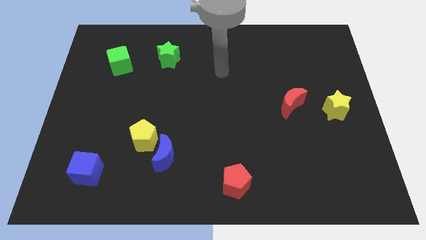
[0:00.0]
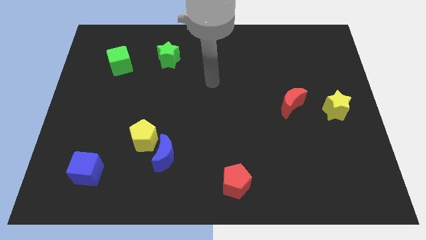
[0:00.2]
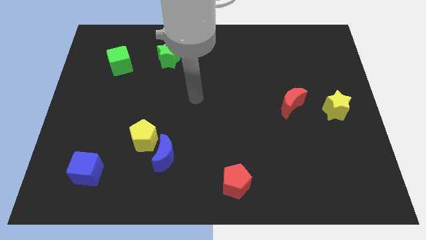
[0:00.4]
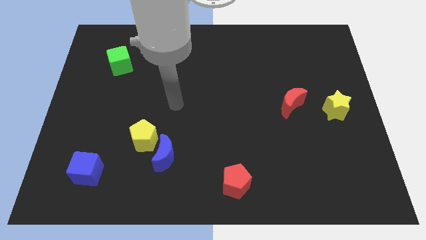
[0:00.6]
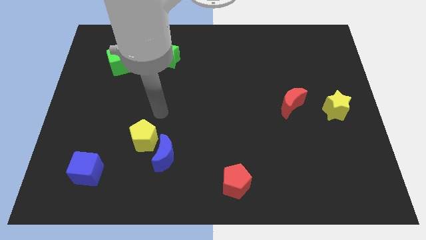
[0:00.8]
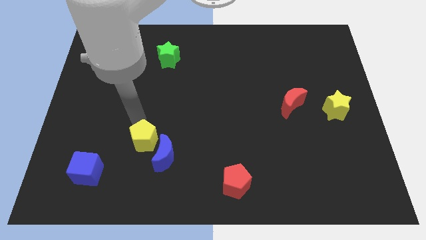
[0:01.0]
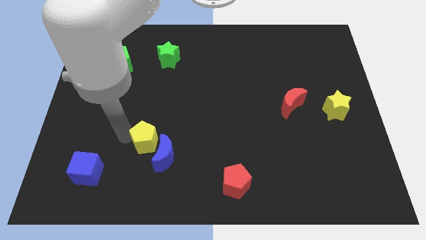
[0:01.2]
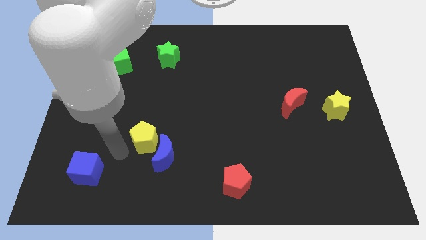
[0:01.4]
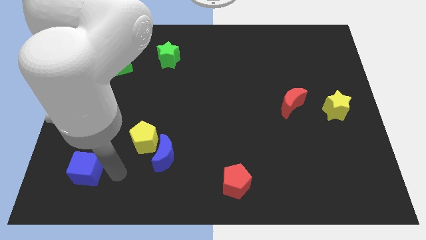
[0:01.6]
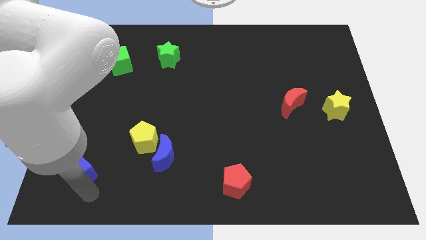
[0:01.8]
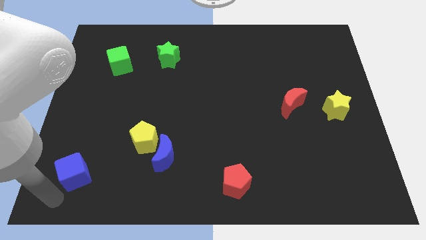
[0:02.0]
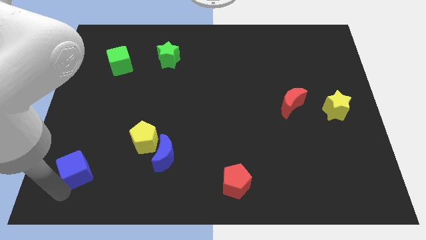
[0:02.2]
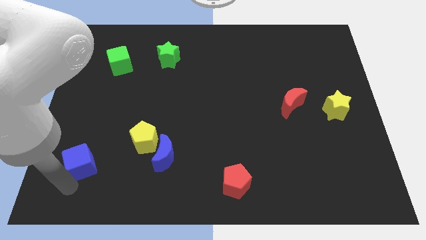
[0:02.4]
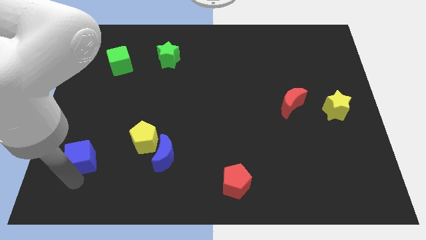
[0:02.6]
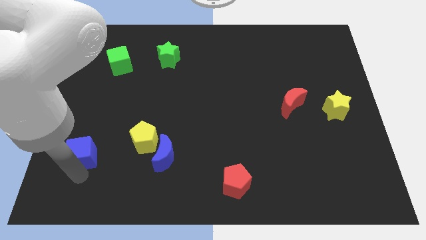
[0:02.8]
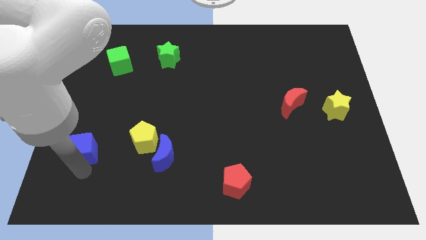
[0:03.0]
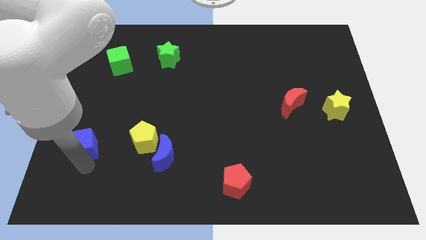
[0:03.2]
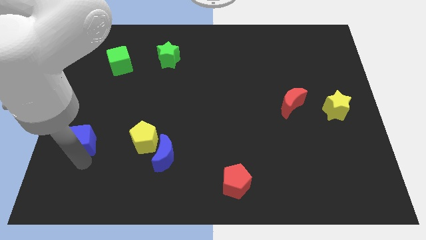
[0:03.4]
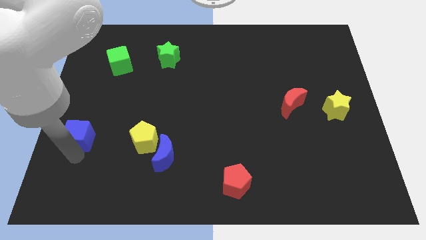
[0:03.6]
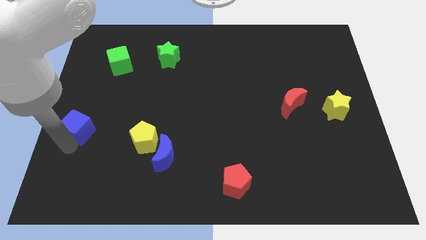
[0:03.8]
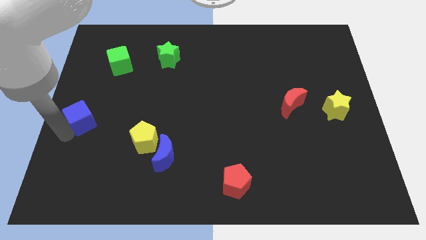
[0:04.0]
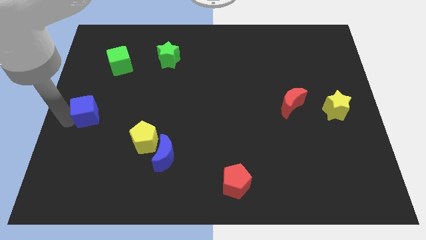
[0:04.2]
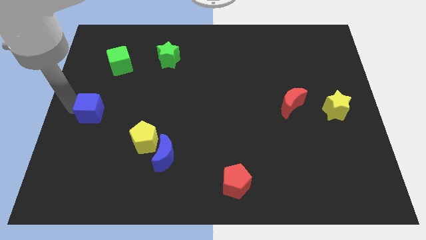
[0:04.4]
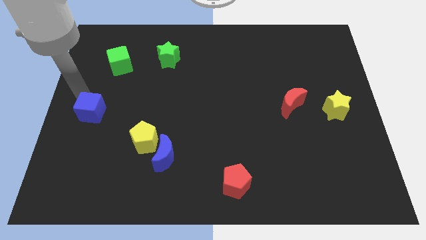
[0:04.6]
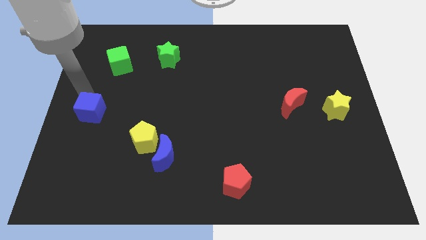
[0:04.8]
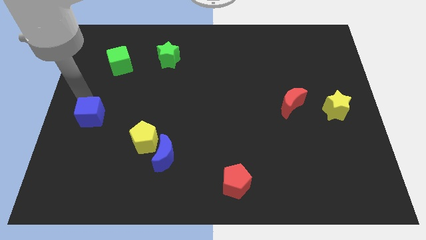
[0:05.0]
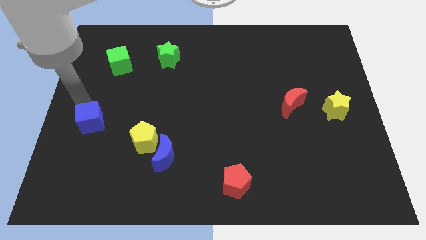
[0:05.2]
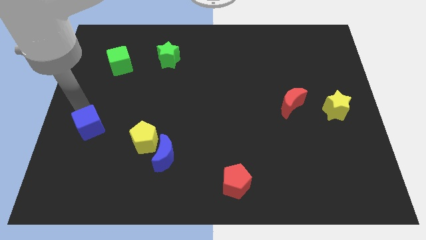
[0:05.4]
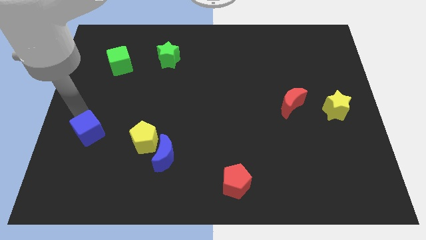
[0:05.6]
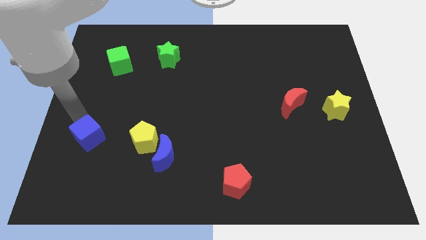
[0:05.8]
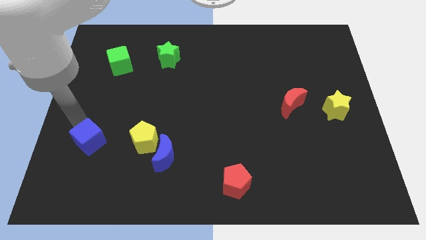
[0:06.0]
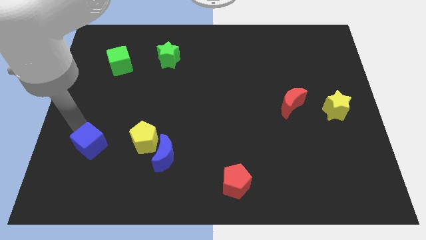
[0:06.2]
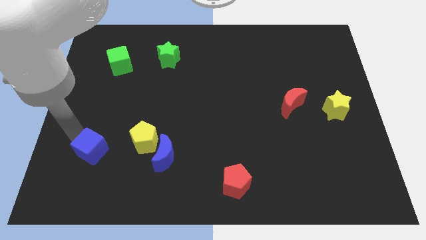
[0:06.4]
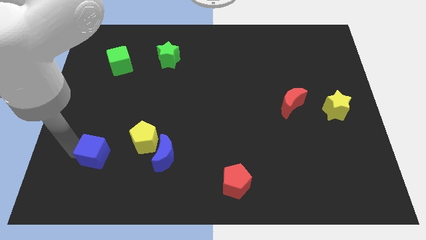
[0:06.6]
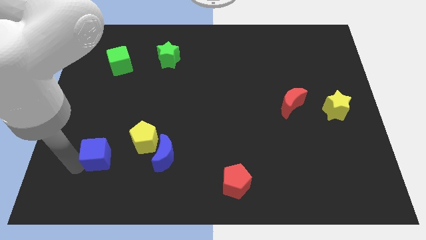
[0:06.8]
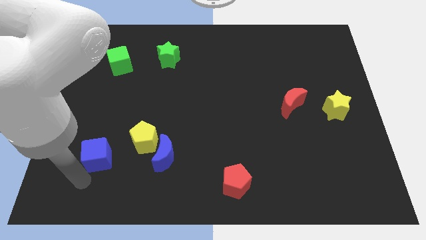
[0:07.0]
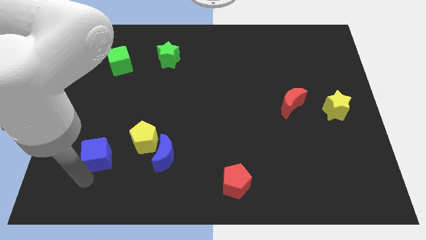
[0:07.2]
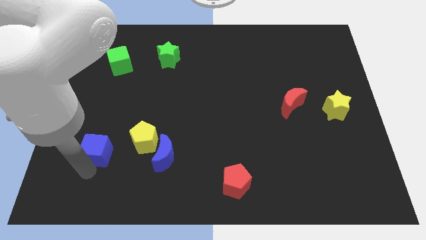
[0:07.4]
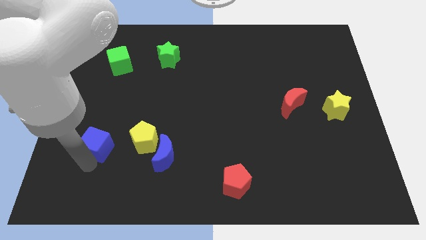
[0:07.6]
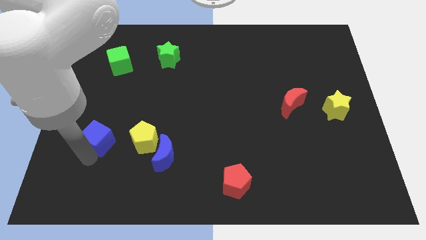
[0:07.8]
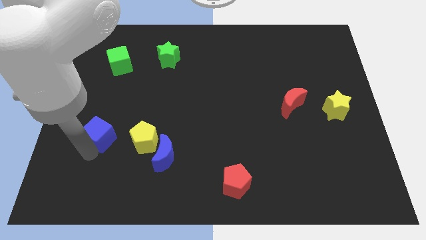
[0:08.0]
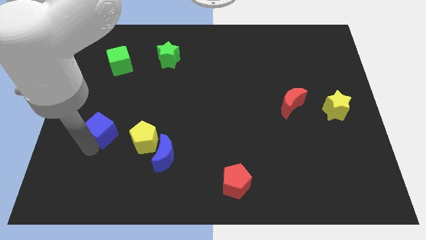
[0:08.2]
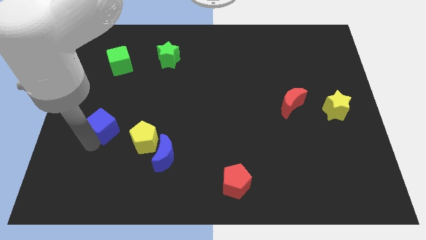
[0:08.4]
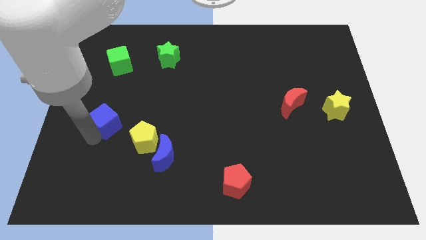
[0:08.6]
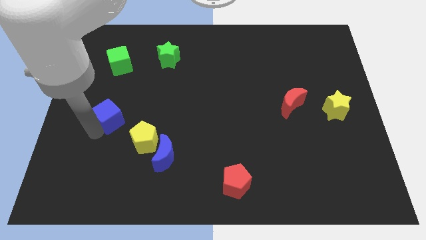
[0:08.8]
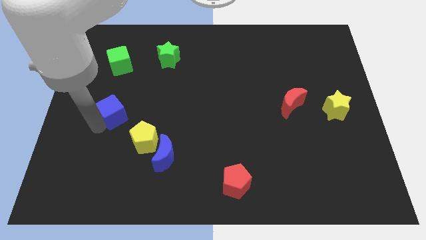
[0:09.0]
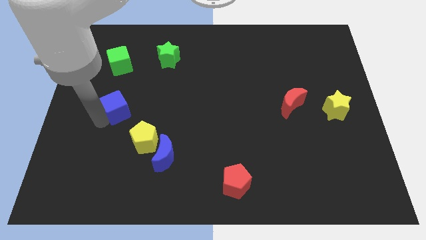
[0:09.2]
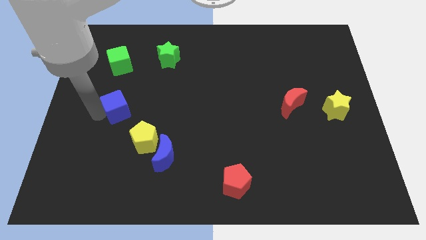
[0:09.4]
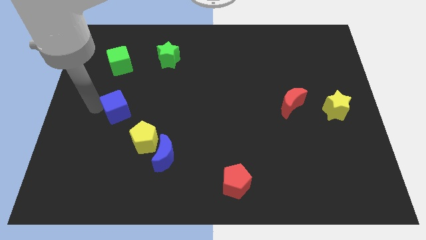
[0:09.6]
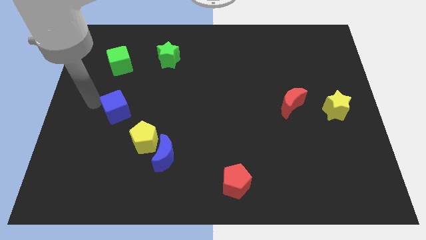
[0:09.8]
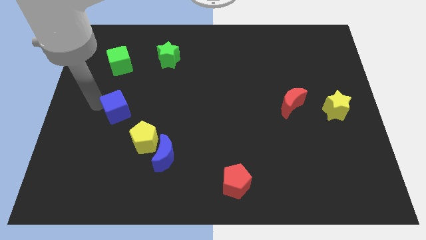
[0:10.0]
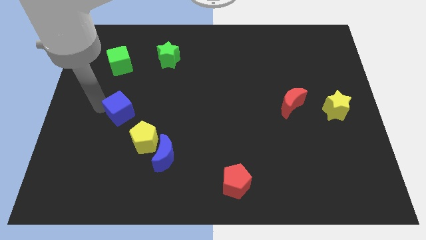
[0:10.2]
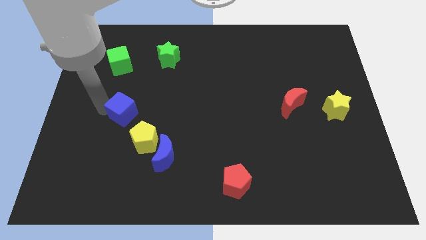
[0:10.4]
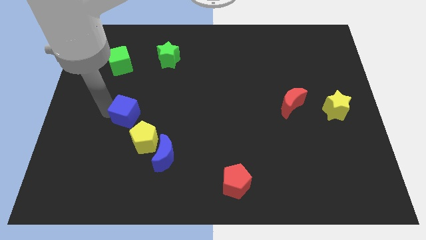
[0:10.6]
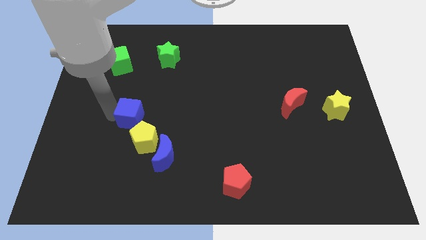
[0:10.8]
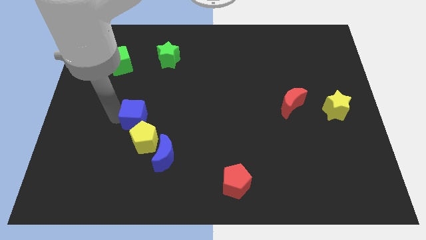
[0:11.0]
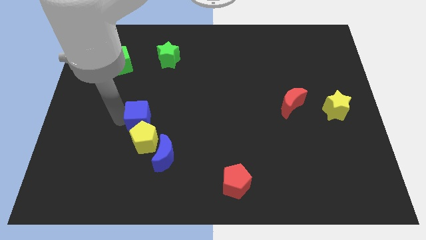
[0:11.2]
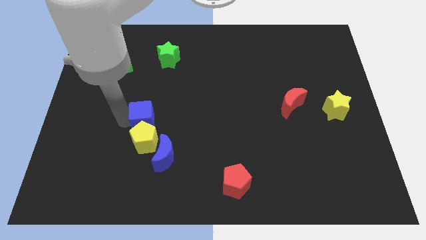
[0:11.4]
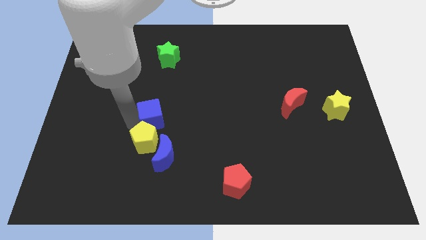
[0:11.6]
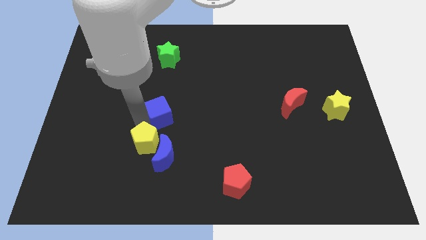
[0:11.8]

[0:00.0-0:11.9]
push the blue cube upwards and to the right

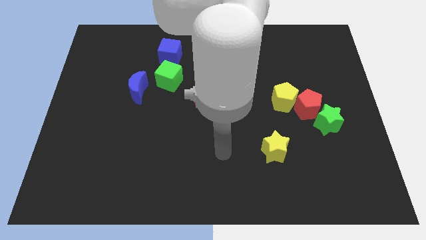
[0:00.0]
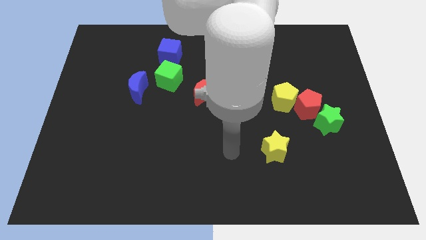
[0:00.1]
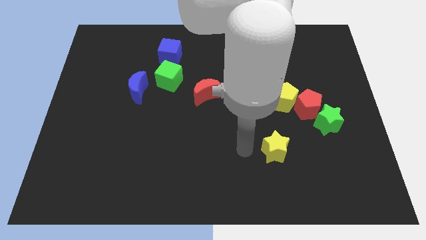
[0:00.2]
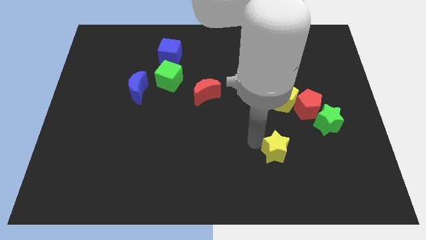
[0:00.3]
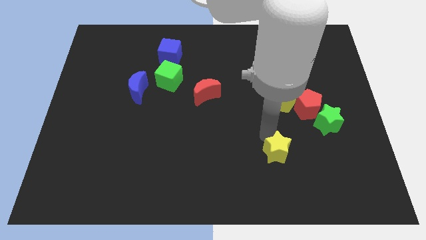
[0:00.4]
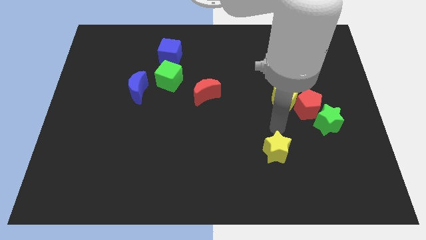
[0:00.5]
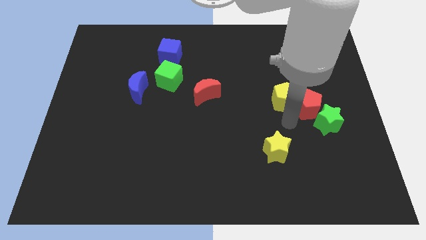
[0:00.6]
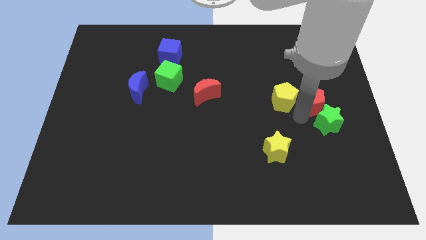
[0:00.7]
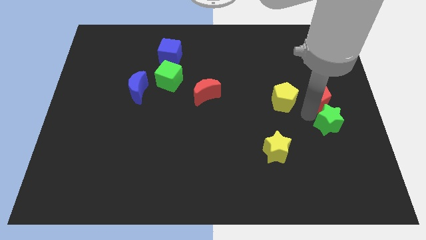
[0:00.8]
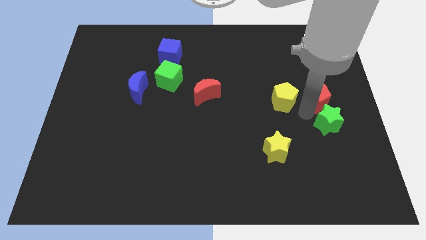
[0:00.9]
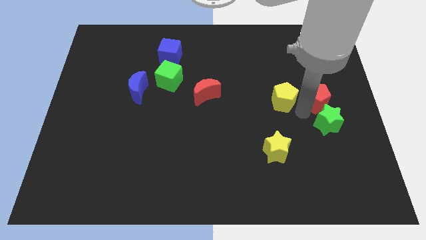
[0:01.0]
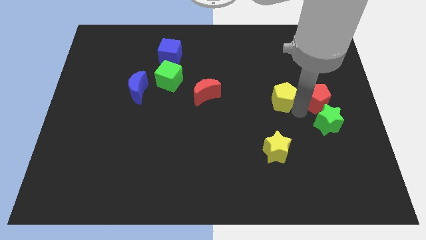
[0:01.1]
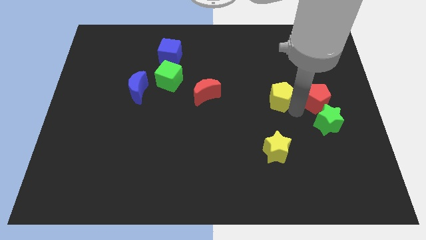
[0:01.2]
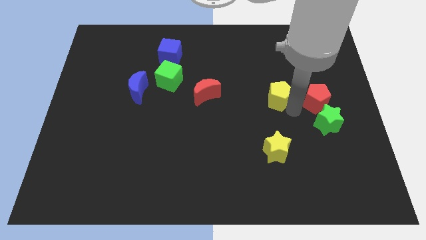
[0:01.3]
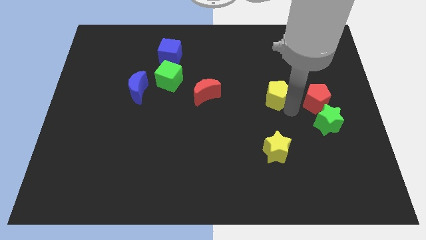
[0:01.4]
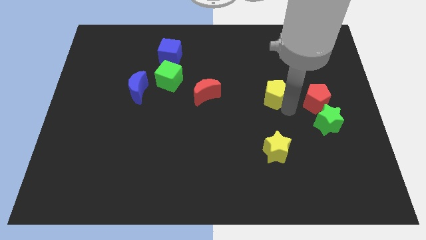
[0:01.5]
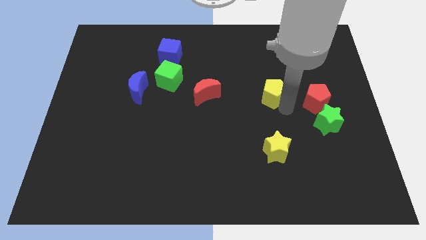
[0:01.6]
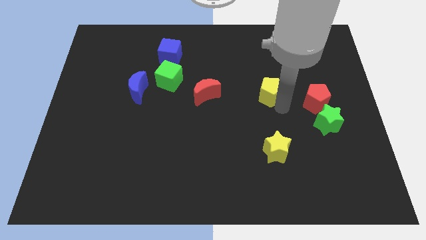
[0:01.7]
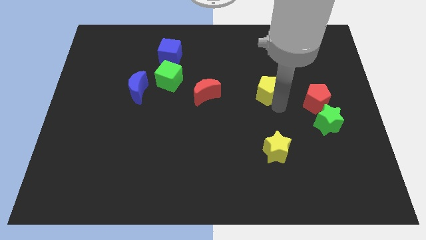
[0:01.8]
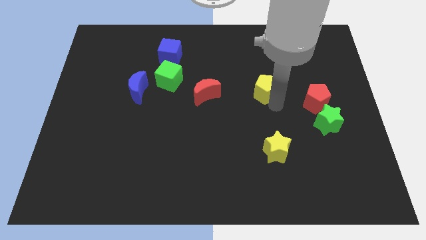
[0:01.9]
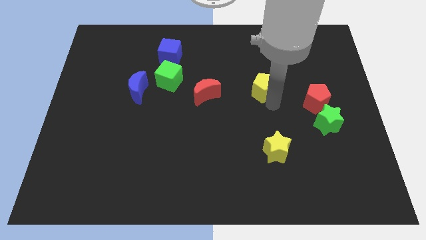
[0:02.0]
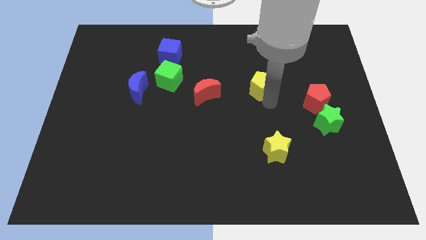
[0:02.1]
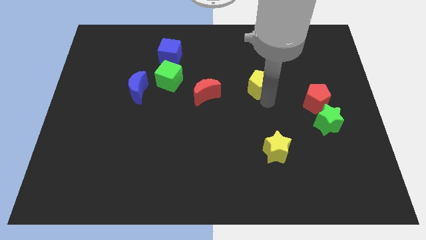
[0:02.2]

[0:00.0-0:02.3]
slightly push the yellow pentagon upwards and to the left diagonally
